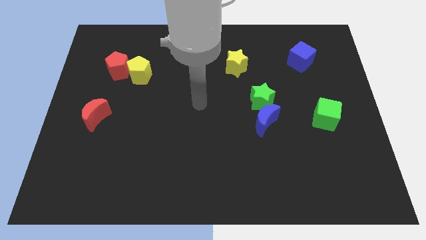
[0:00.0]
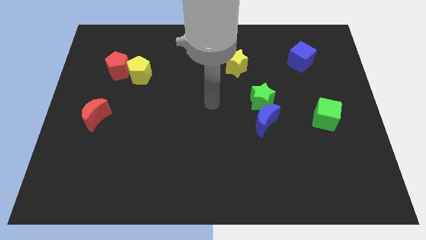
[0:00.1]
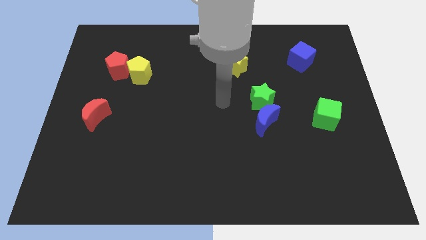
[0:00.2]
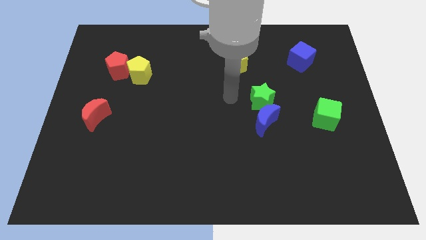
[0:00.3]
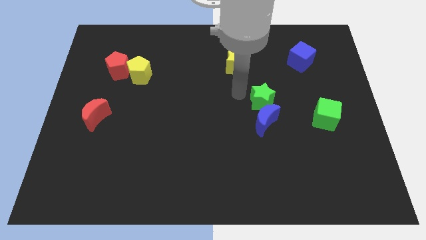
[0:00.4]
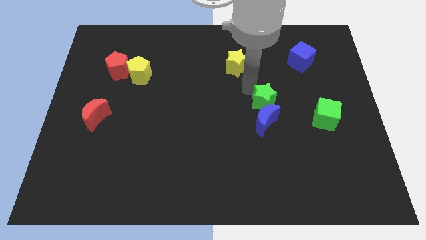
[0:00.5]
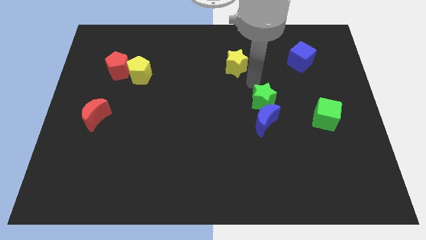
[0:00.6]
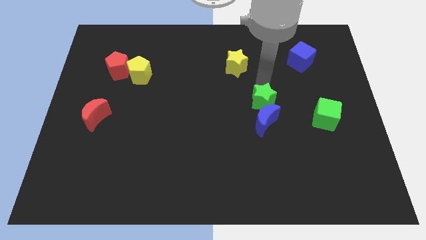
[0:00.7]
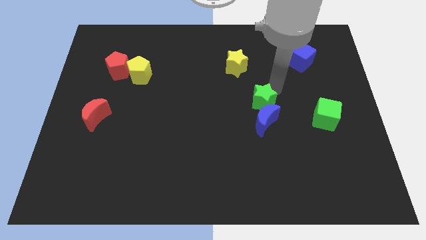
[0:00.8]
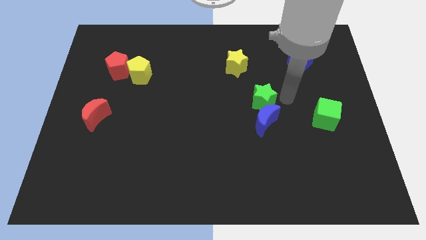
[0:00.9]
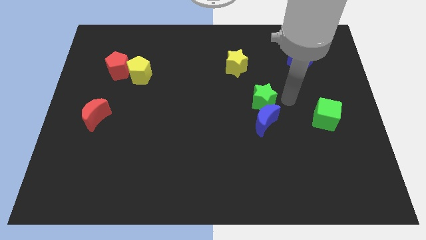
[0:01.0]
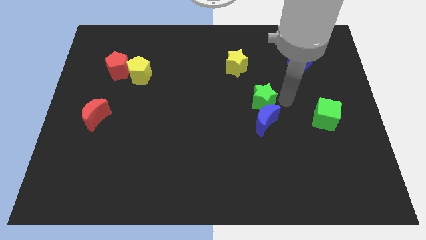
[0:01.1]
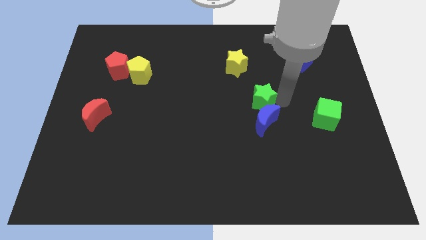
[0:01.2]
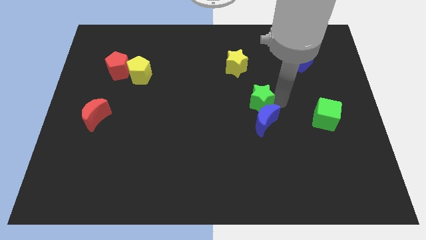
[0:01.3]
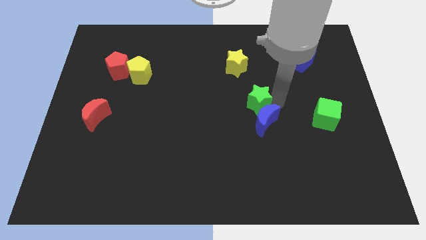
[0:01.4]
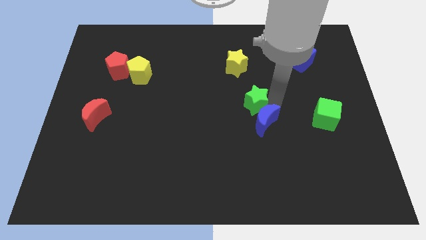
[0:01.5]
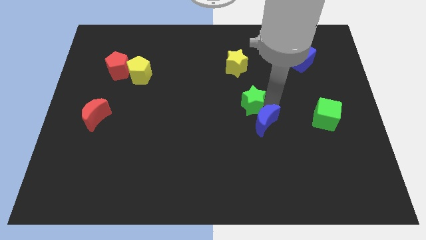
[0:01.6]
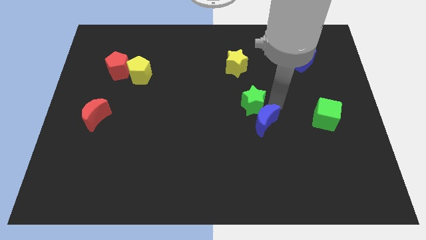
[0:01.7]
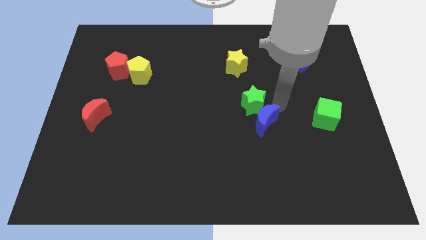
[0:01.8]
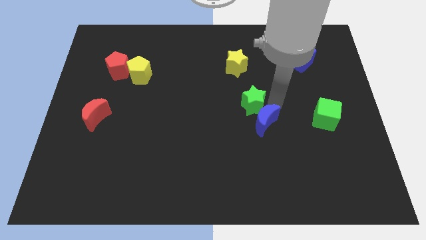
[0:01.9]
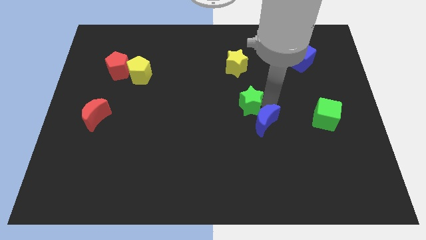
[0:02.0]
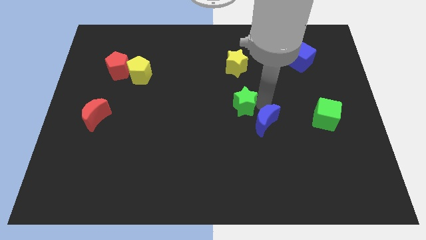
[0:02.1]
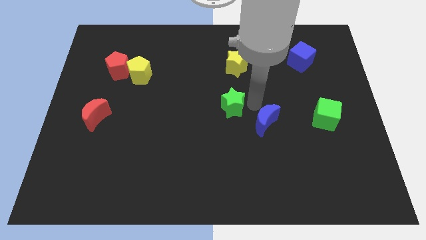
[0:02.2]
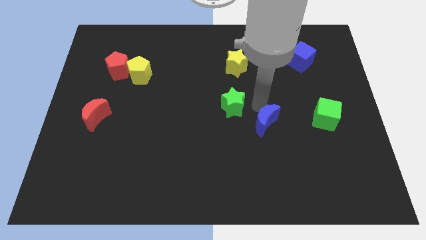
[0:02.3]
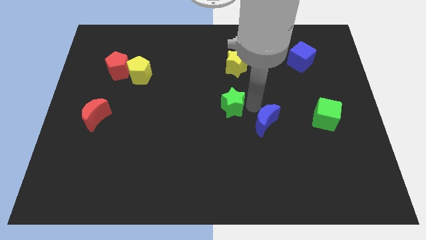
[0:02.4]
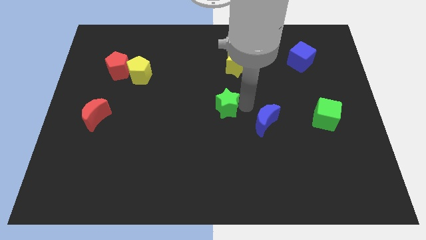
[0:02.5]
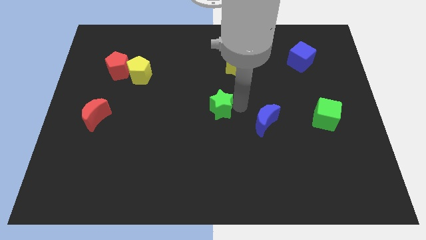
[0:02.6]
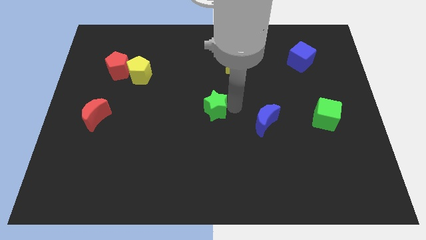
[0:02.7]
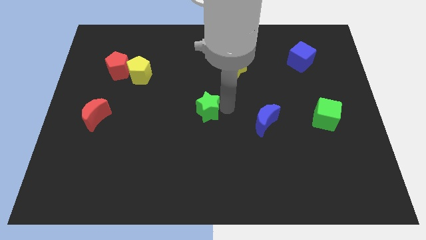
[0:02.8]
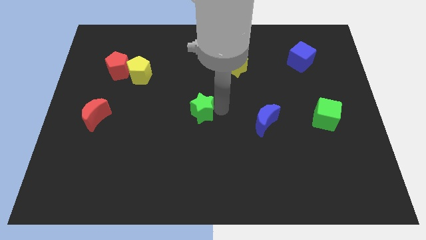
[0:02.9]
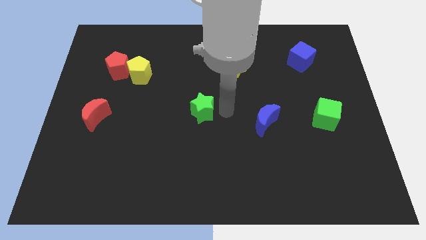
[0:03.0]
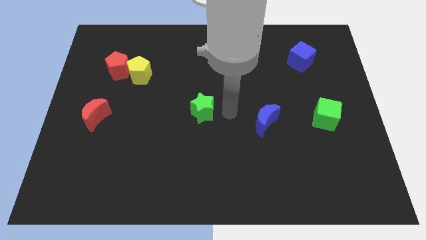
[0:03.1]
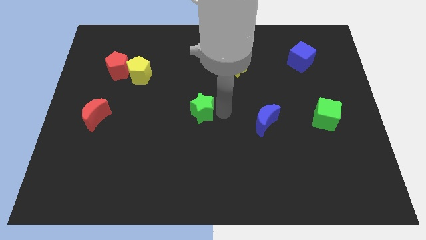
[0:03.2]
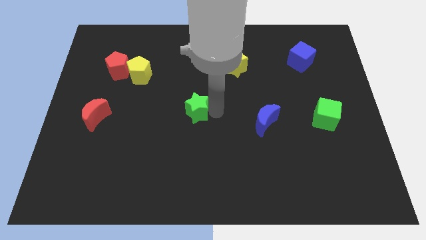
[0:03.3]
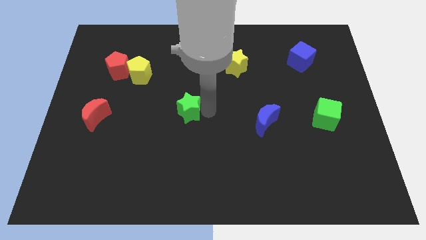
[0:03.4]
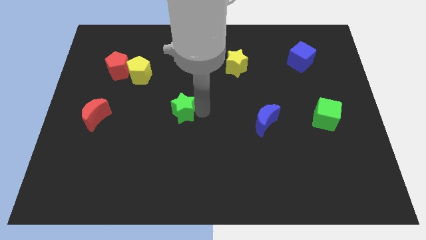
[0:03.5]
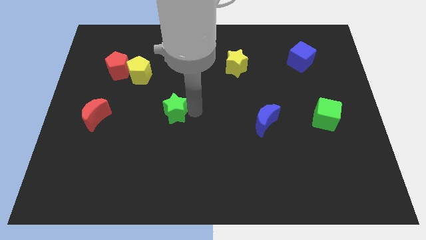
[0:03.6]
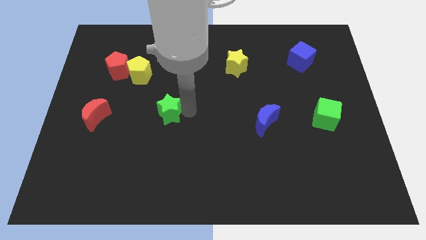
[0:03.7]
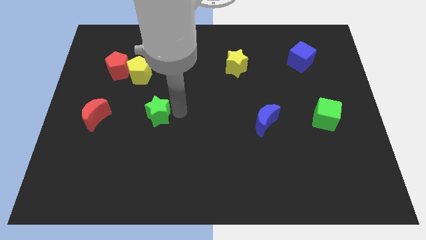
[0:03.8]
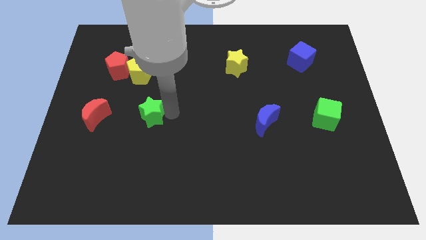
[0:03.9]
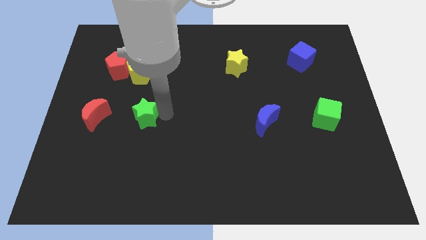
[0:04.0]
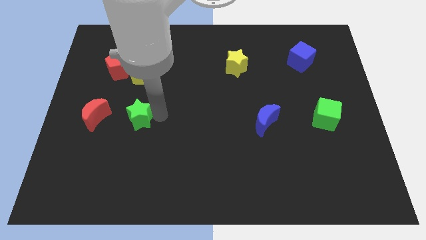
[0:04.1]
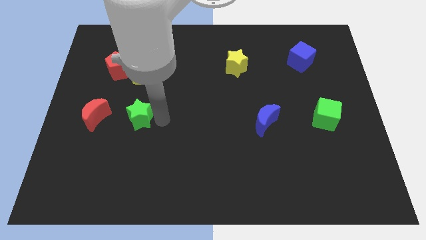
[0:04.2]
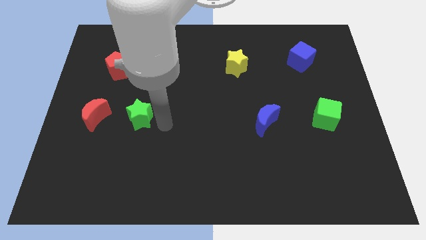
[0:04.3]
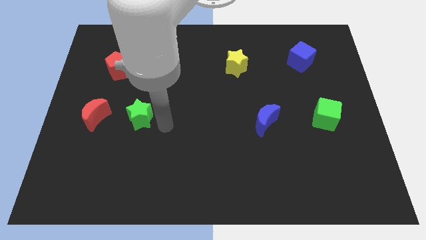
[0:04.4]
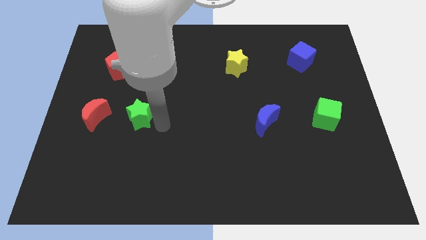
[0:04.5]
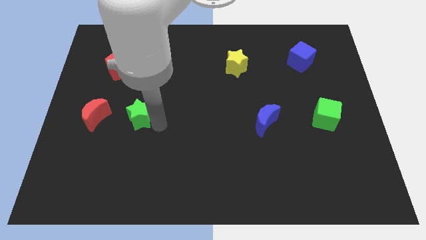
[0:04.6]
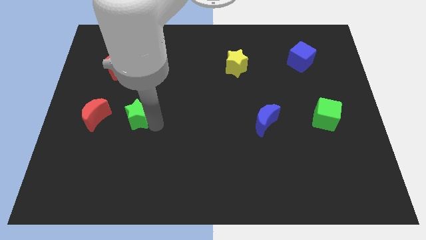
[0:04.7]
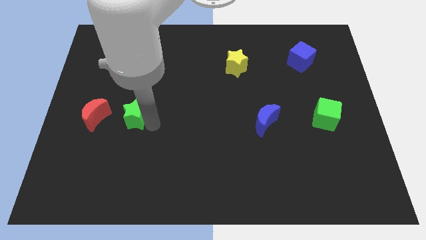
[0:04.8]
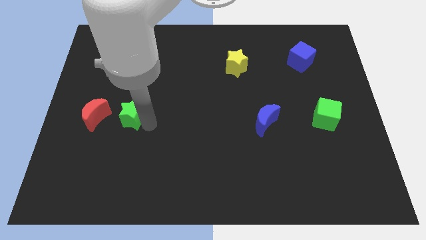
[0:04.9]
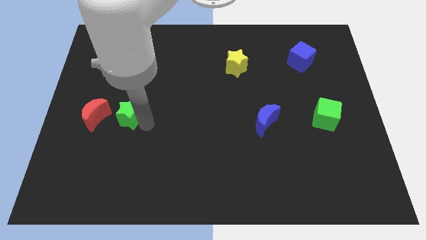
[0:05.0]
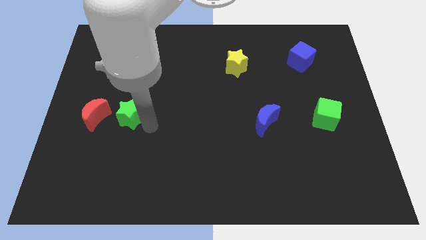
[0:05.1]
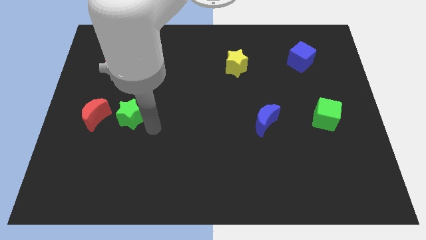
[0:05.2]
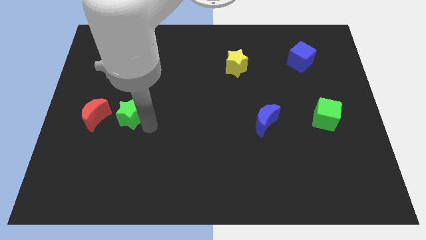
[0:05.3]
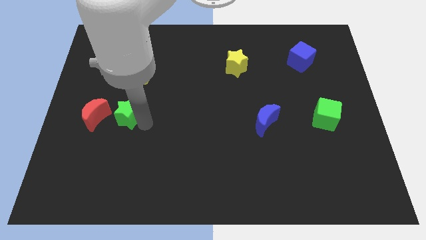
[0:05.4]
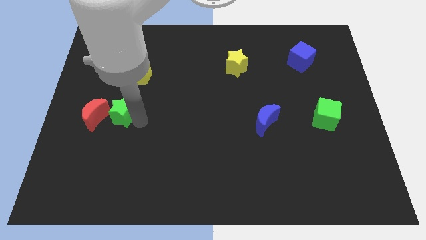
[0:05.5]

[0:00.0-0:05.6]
put the green star next to the red moon

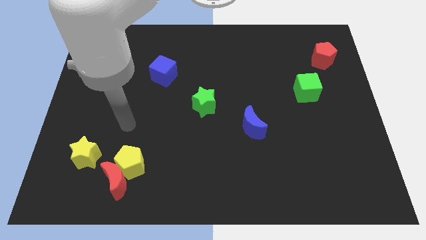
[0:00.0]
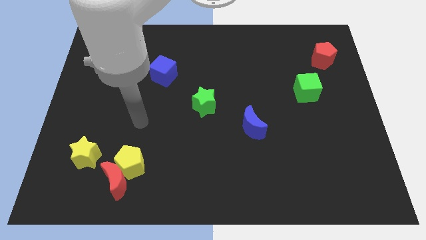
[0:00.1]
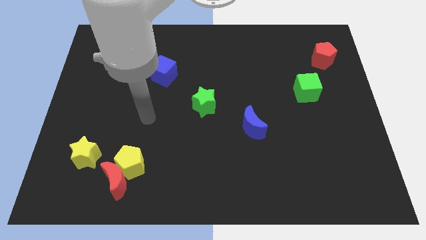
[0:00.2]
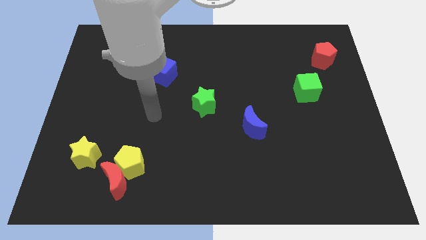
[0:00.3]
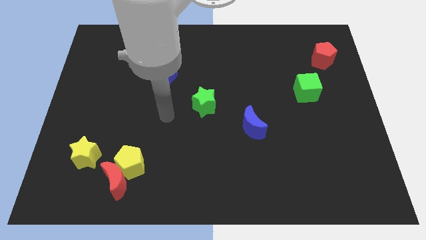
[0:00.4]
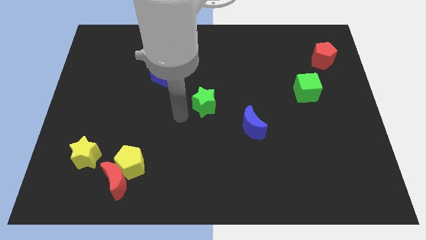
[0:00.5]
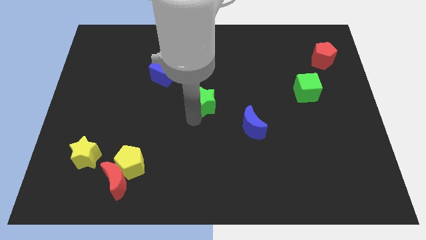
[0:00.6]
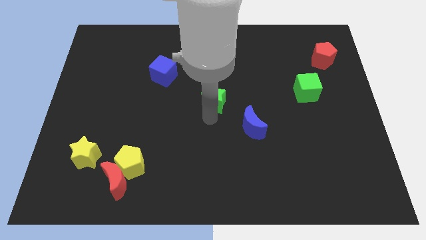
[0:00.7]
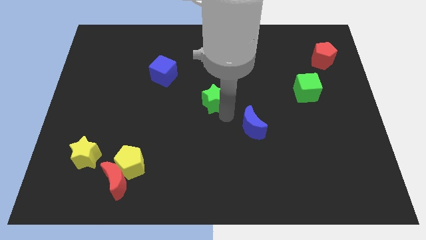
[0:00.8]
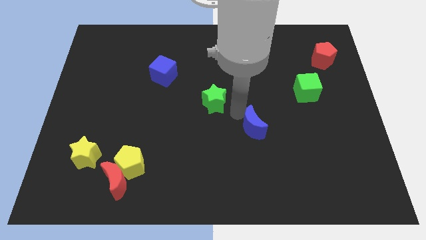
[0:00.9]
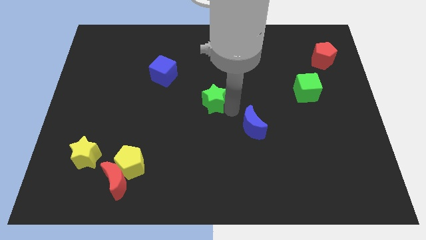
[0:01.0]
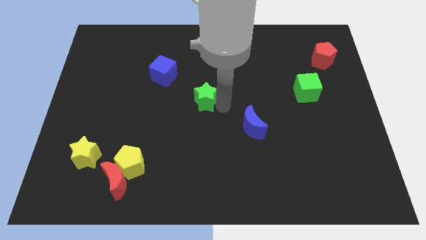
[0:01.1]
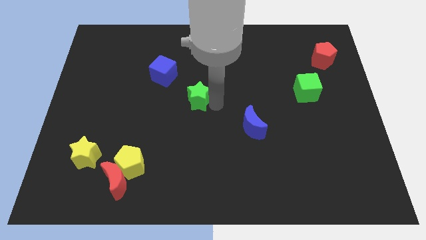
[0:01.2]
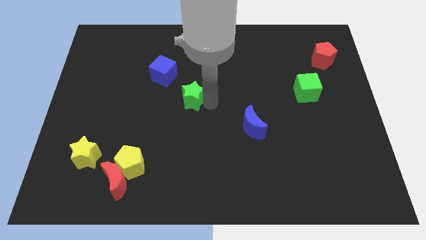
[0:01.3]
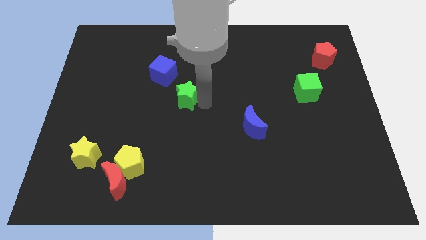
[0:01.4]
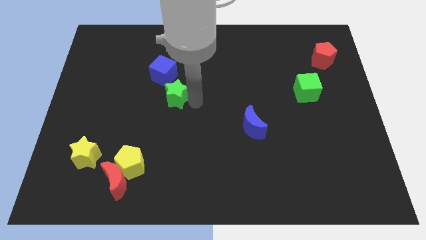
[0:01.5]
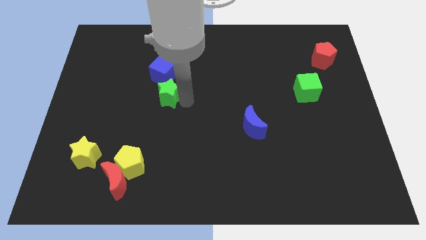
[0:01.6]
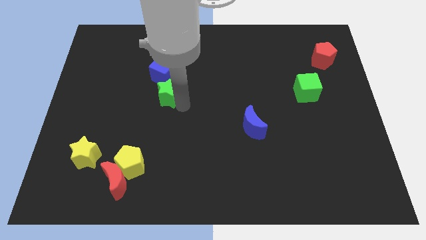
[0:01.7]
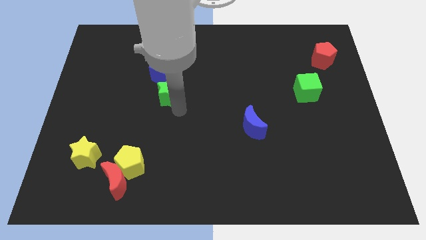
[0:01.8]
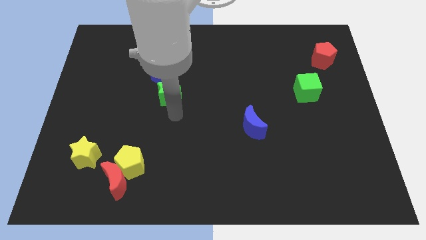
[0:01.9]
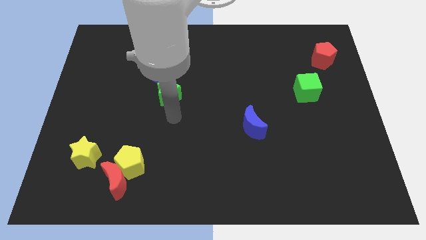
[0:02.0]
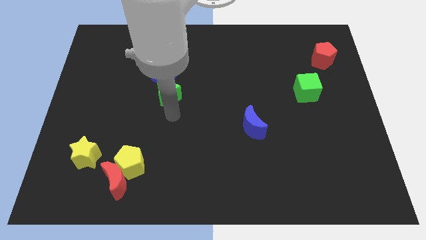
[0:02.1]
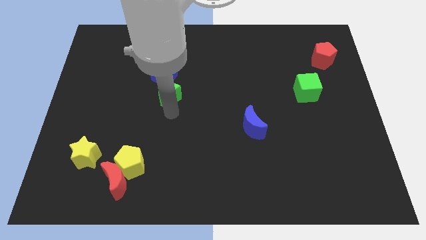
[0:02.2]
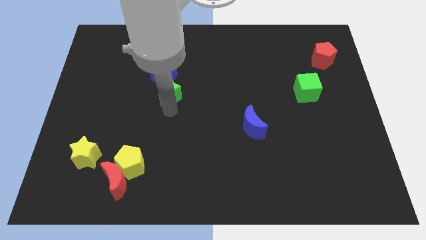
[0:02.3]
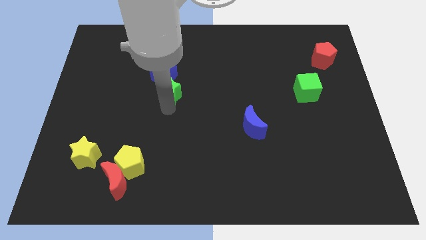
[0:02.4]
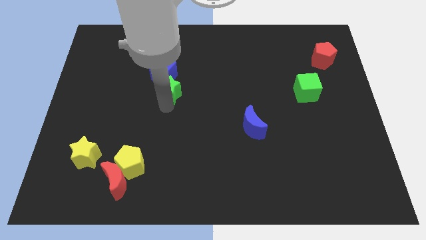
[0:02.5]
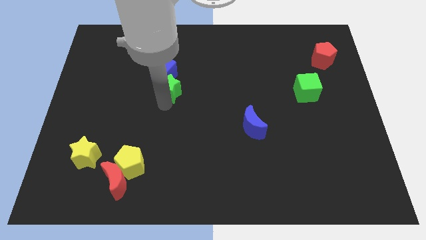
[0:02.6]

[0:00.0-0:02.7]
slide the green star close to the blue cube
